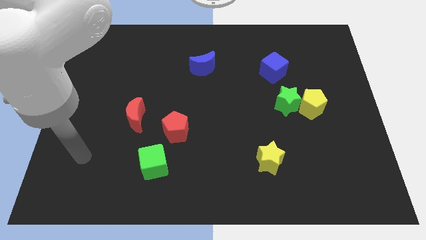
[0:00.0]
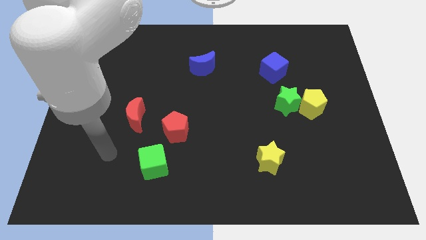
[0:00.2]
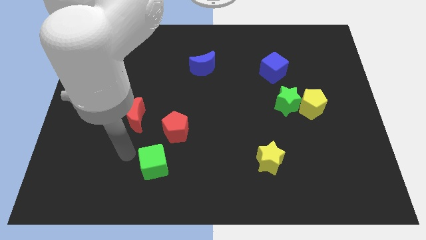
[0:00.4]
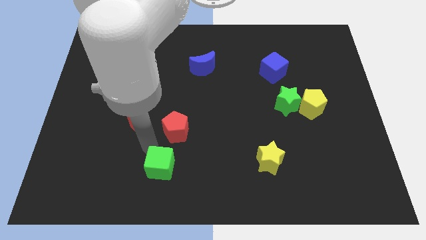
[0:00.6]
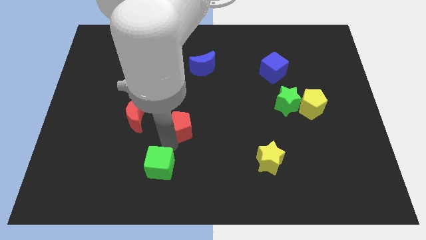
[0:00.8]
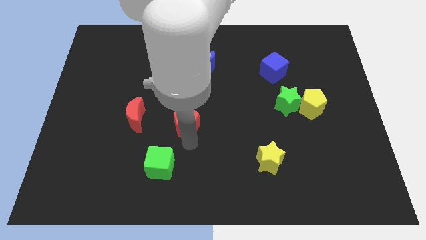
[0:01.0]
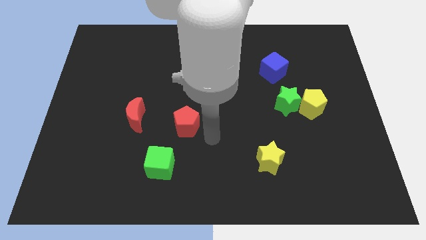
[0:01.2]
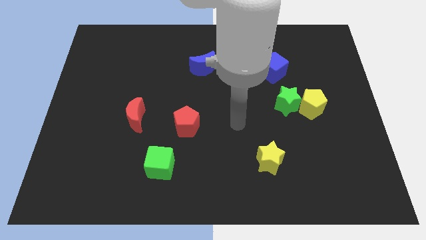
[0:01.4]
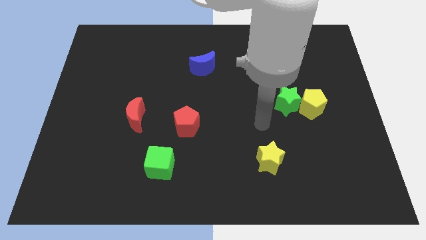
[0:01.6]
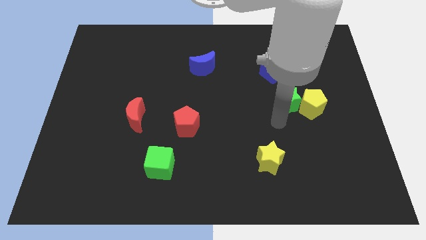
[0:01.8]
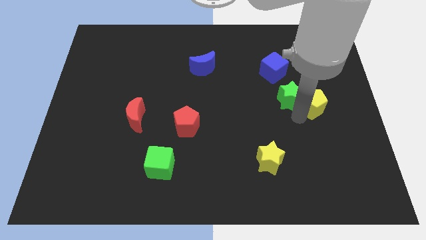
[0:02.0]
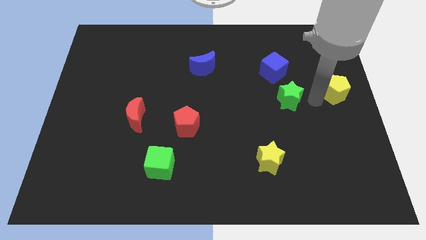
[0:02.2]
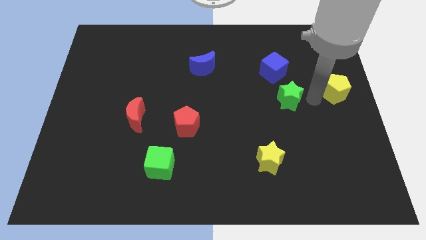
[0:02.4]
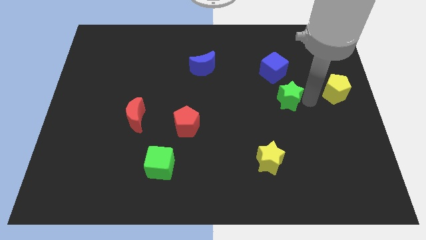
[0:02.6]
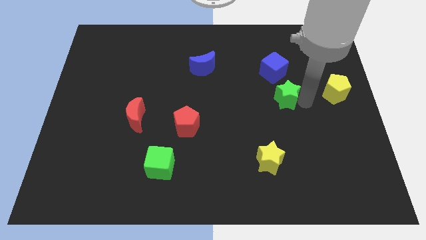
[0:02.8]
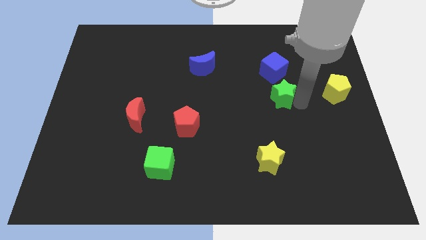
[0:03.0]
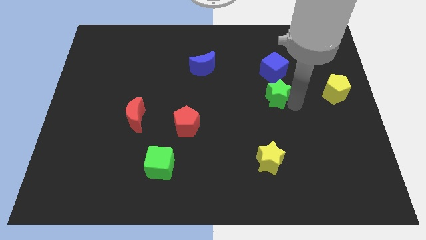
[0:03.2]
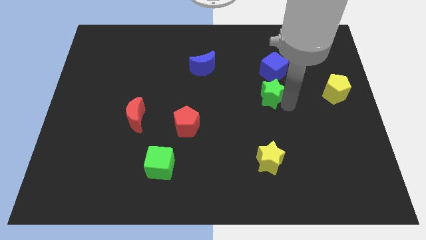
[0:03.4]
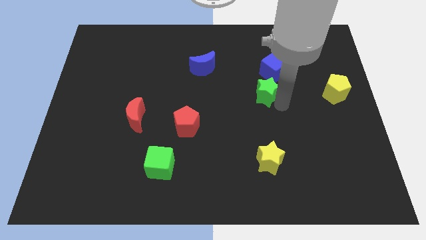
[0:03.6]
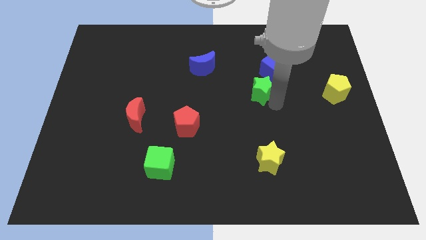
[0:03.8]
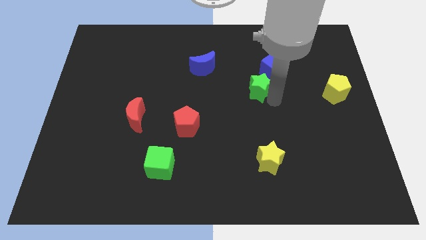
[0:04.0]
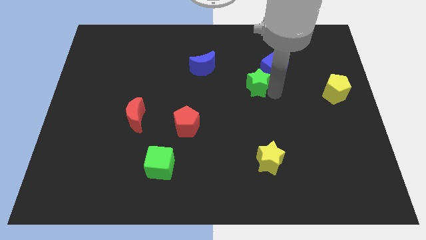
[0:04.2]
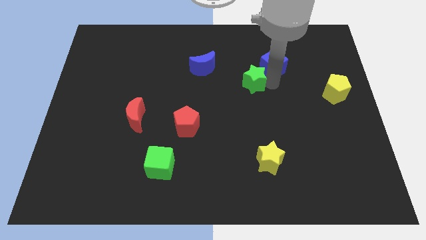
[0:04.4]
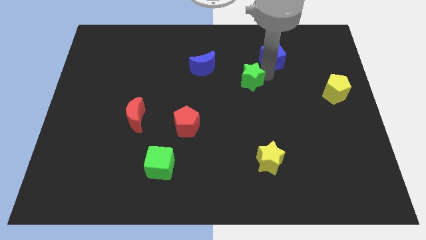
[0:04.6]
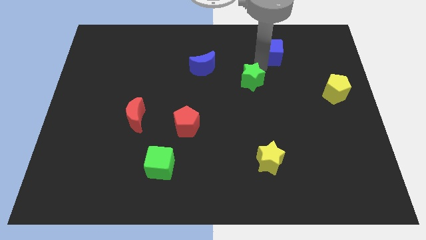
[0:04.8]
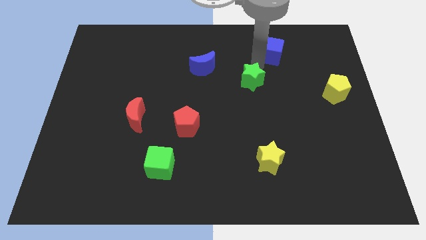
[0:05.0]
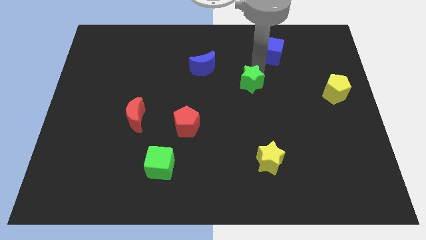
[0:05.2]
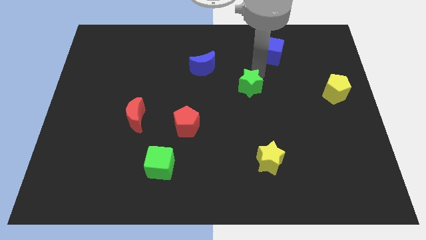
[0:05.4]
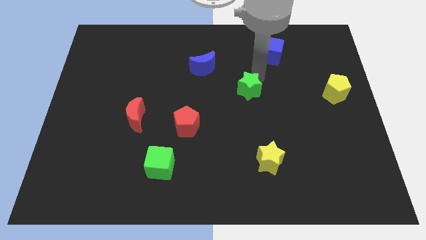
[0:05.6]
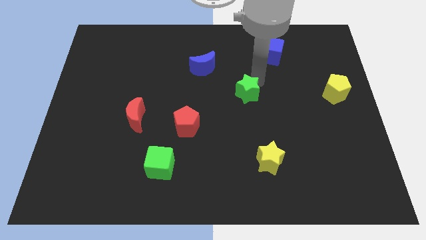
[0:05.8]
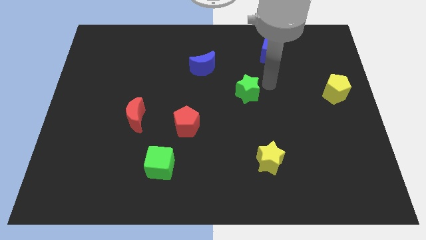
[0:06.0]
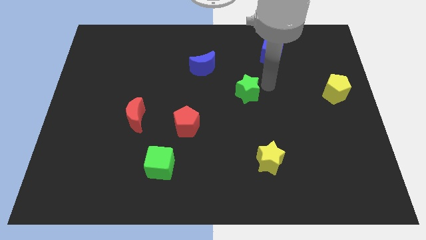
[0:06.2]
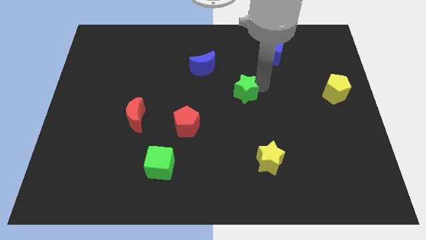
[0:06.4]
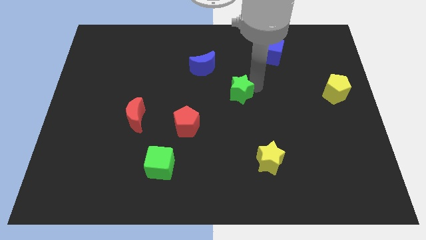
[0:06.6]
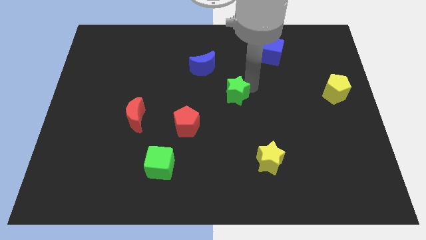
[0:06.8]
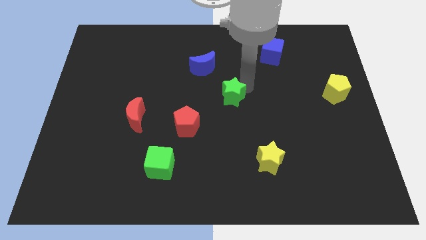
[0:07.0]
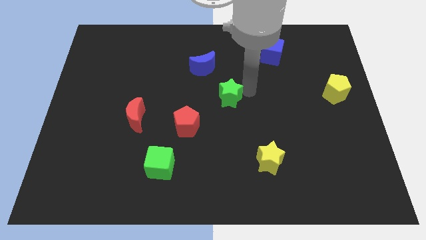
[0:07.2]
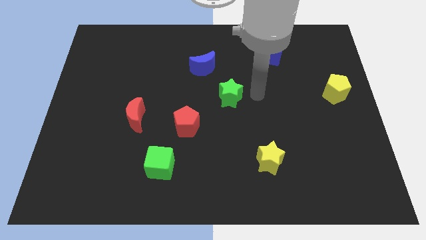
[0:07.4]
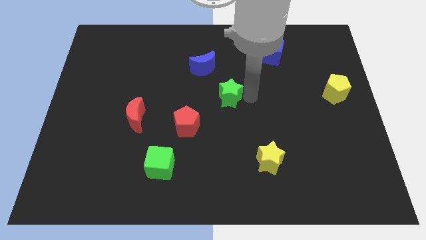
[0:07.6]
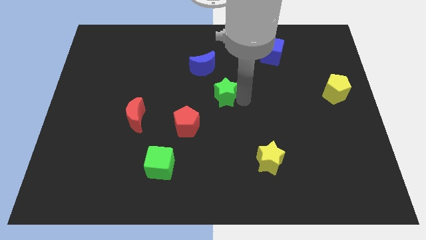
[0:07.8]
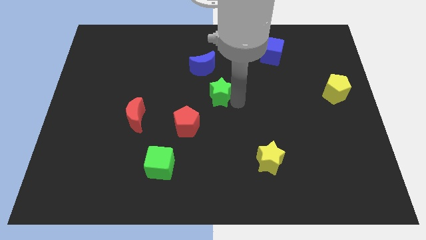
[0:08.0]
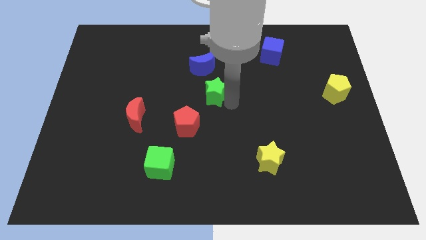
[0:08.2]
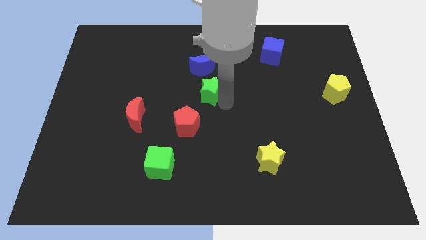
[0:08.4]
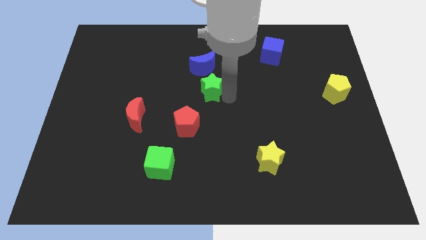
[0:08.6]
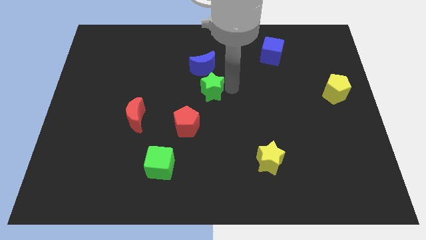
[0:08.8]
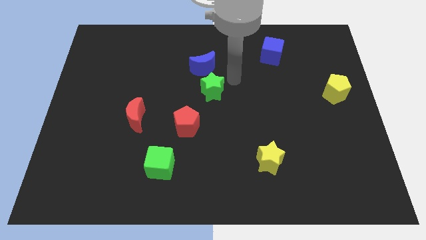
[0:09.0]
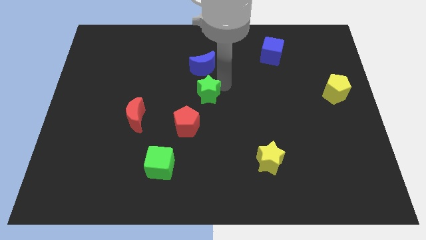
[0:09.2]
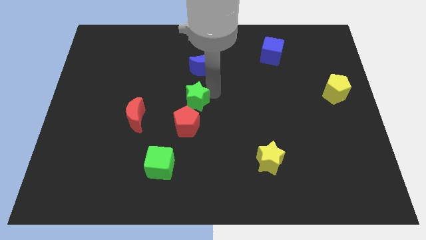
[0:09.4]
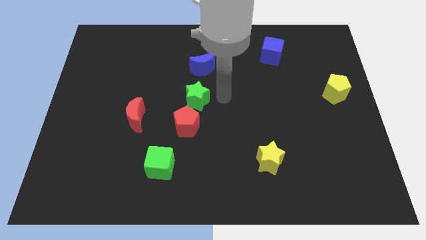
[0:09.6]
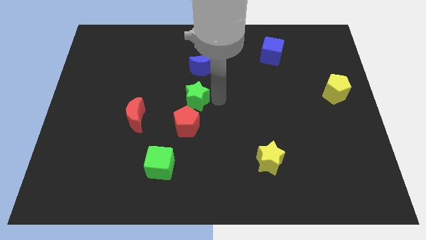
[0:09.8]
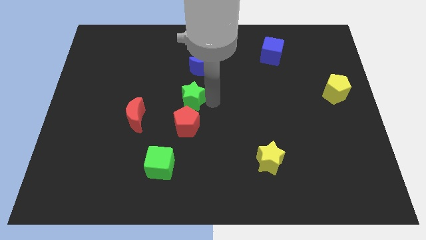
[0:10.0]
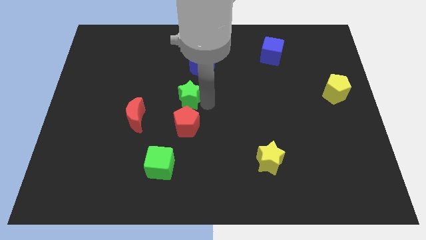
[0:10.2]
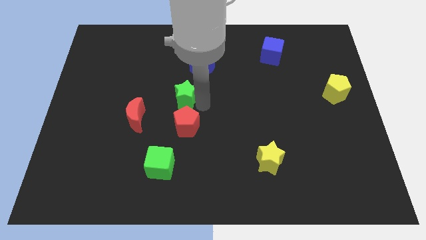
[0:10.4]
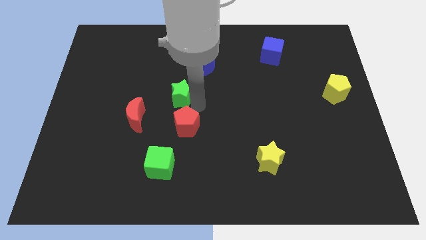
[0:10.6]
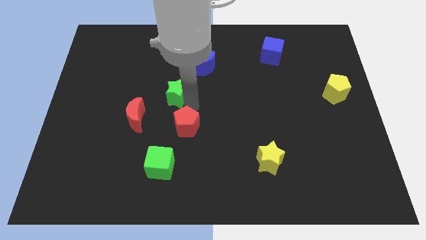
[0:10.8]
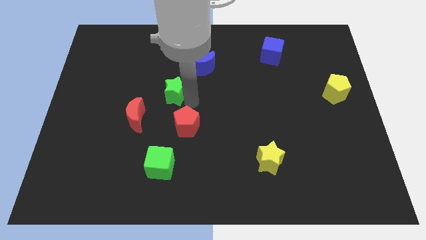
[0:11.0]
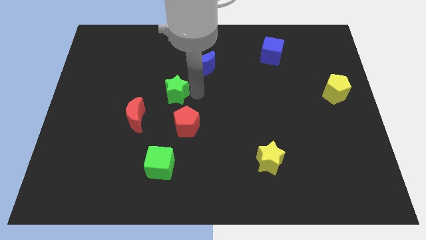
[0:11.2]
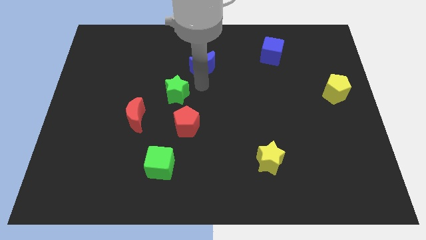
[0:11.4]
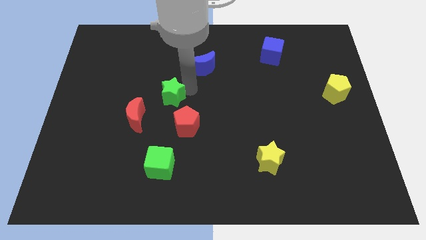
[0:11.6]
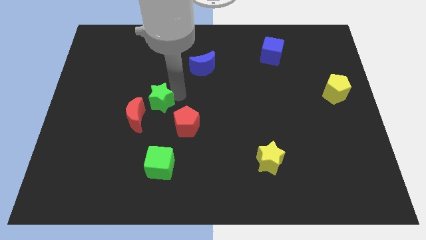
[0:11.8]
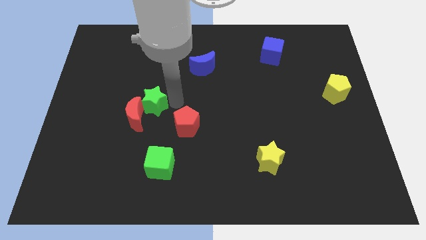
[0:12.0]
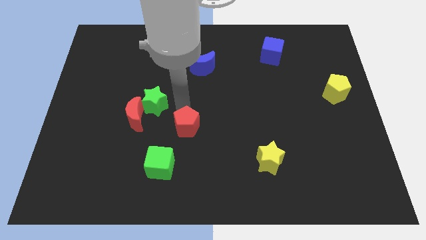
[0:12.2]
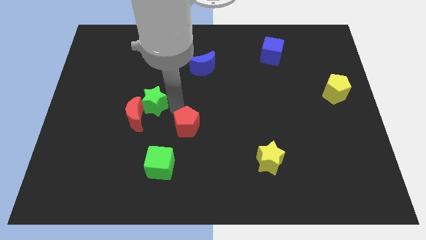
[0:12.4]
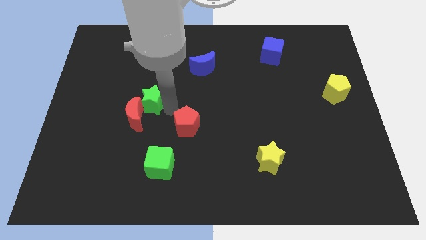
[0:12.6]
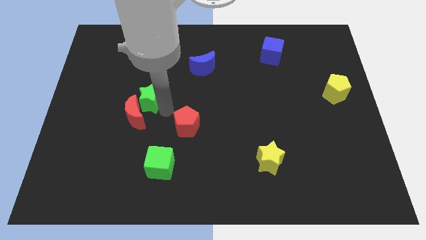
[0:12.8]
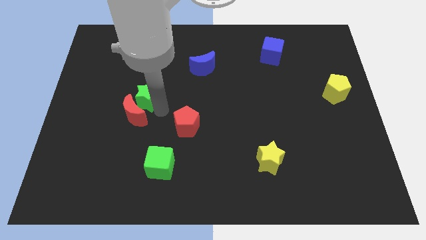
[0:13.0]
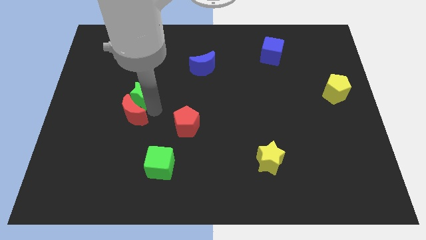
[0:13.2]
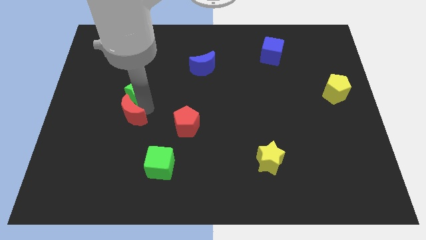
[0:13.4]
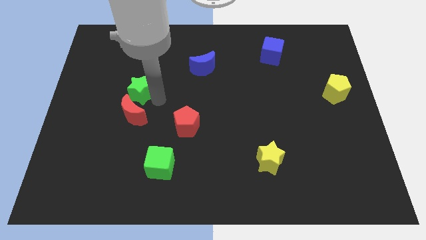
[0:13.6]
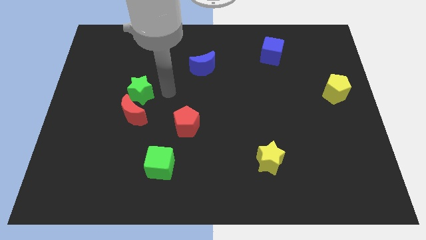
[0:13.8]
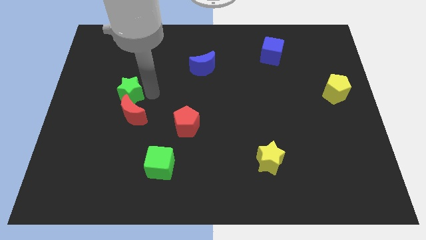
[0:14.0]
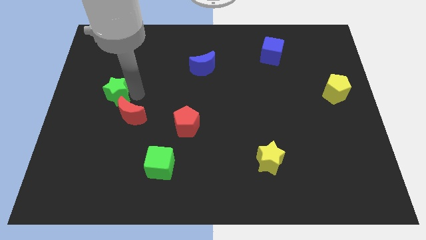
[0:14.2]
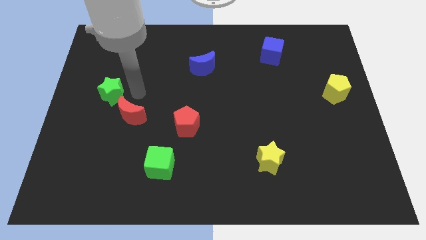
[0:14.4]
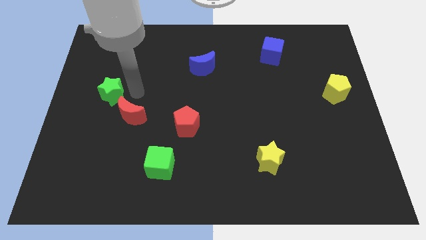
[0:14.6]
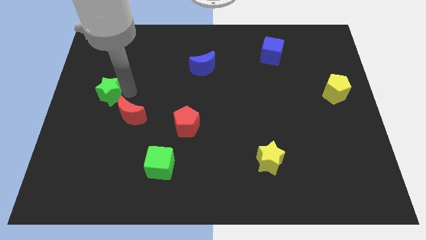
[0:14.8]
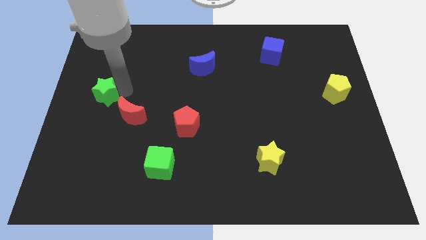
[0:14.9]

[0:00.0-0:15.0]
put the green star to the left side

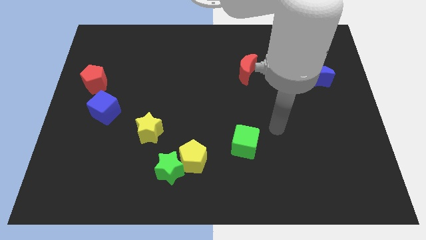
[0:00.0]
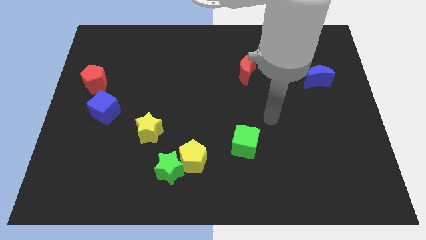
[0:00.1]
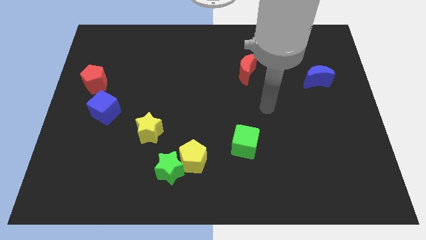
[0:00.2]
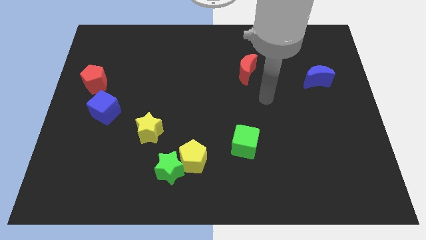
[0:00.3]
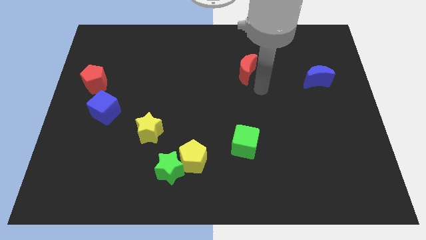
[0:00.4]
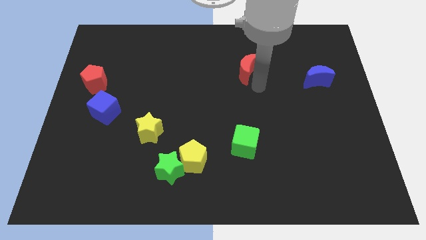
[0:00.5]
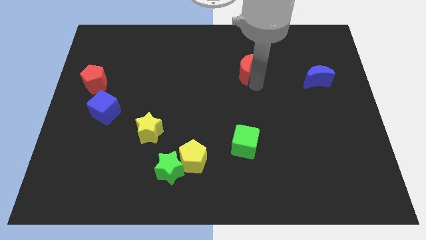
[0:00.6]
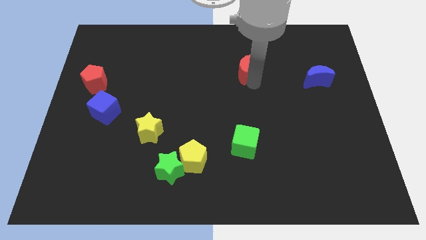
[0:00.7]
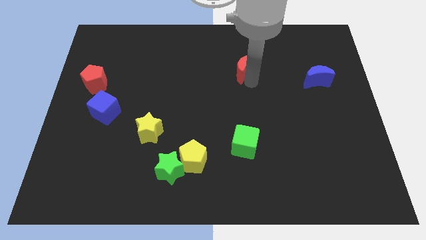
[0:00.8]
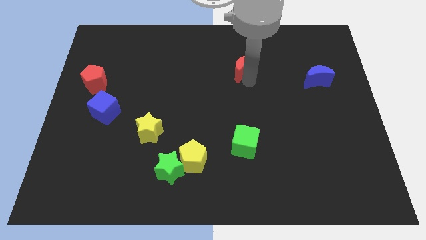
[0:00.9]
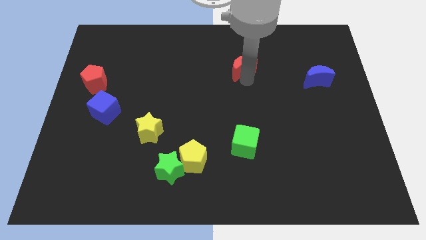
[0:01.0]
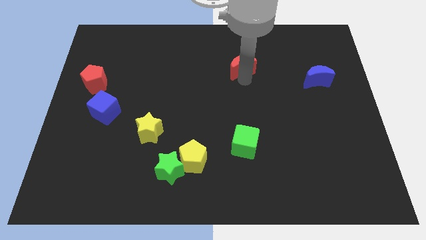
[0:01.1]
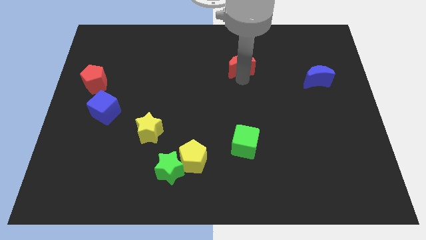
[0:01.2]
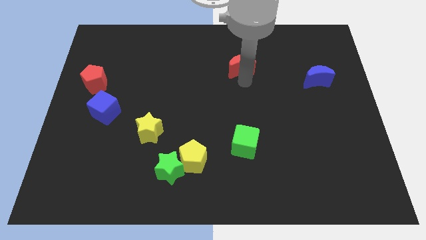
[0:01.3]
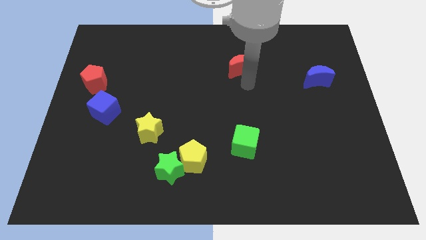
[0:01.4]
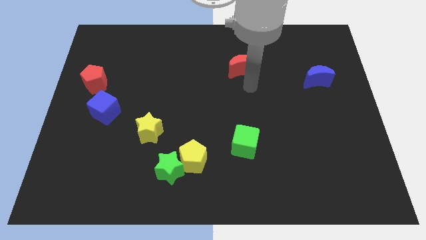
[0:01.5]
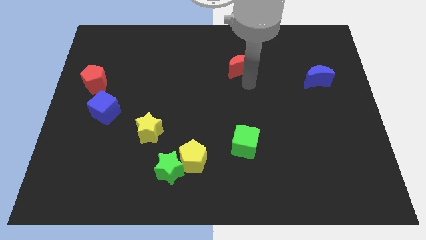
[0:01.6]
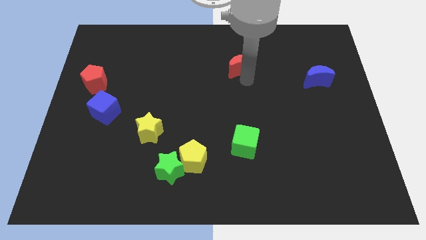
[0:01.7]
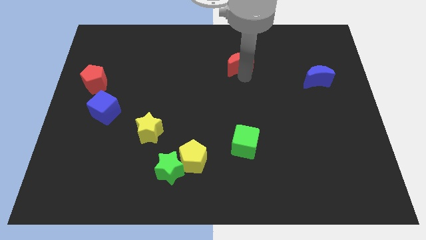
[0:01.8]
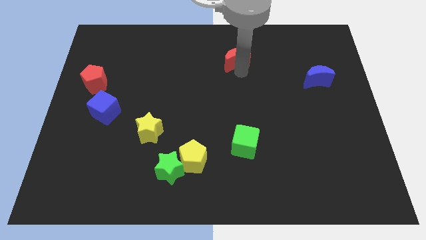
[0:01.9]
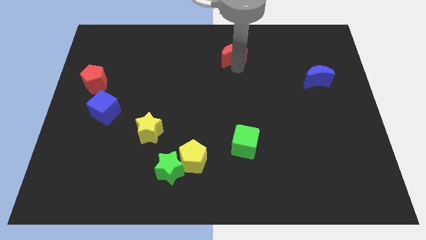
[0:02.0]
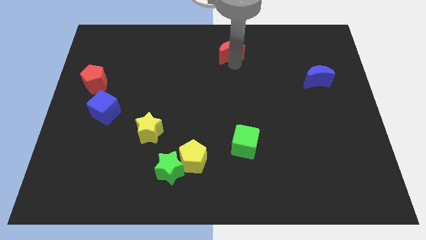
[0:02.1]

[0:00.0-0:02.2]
push the red moon to the top
